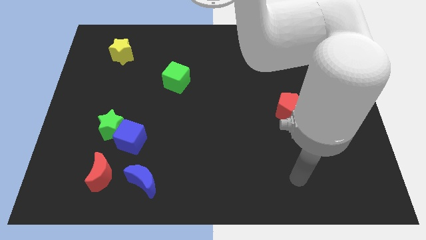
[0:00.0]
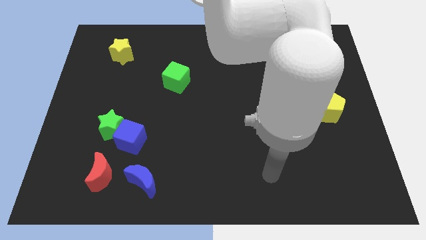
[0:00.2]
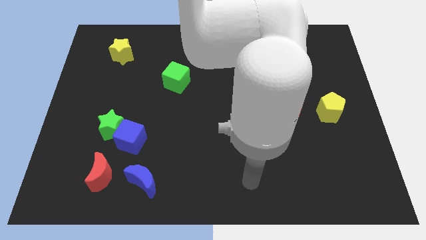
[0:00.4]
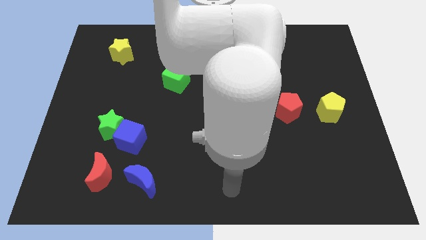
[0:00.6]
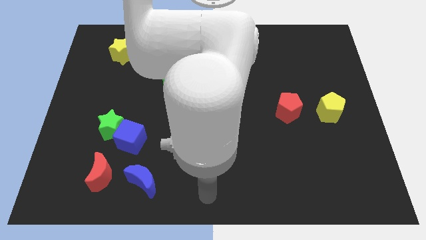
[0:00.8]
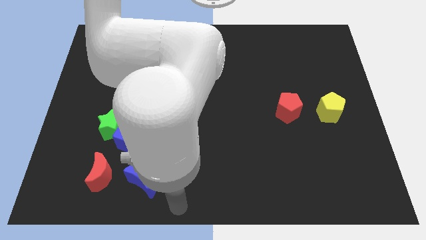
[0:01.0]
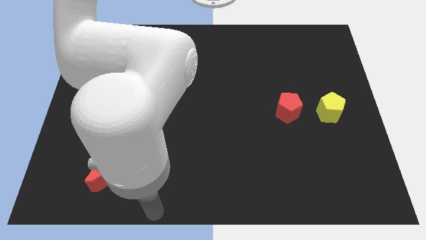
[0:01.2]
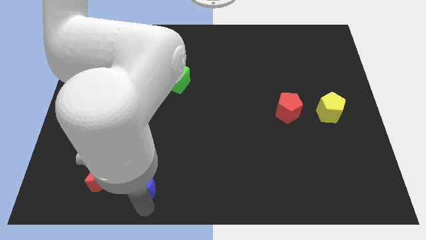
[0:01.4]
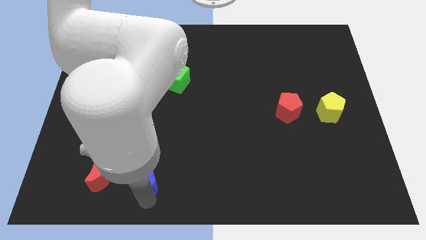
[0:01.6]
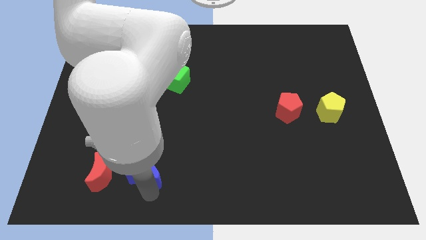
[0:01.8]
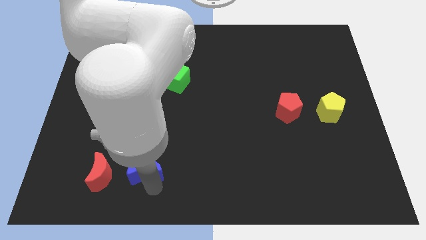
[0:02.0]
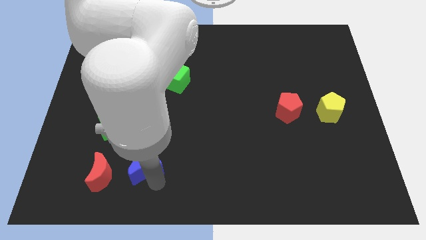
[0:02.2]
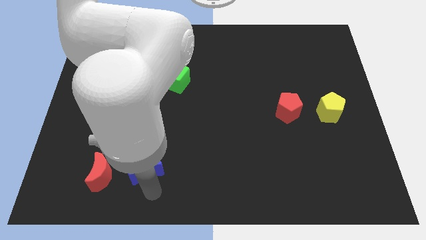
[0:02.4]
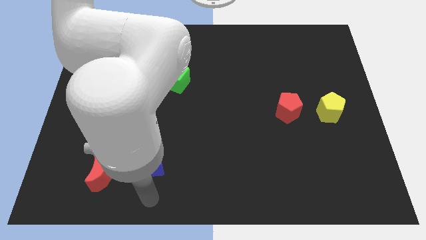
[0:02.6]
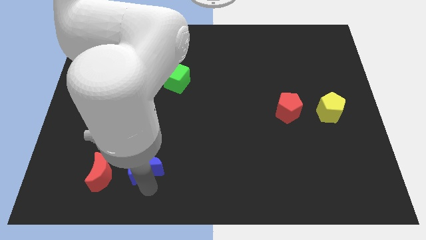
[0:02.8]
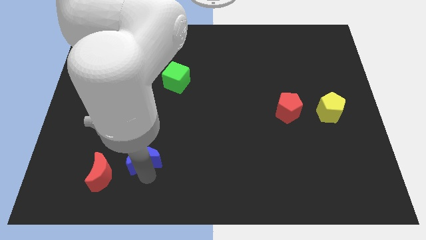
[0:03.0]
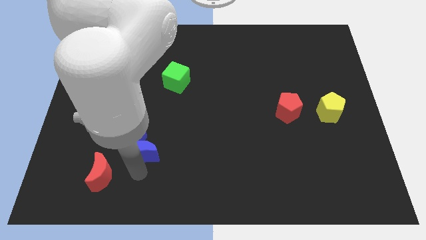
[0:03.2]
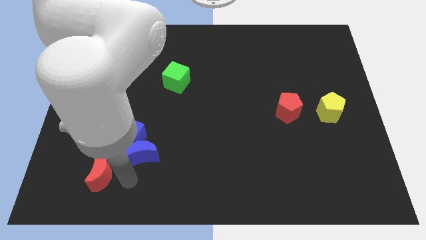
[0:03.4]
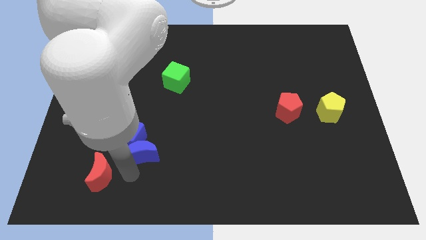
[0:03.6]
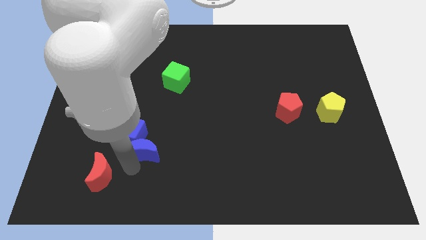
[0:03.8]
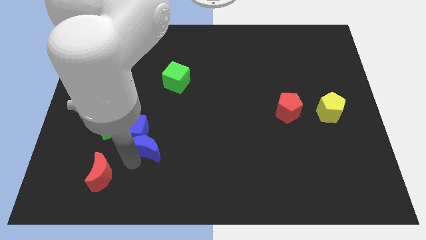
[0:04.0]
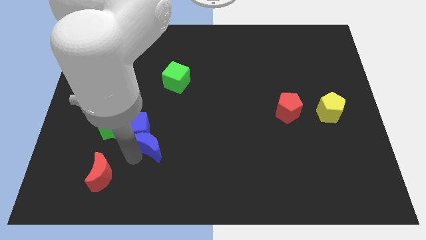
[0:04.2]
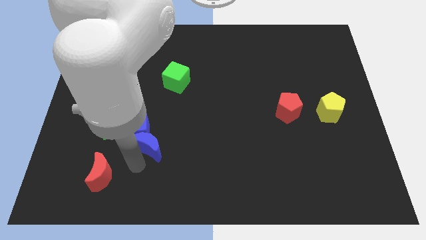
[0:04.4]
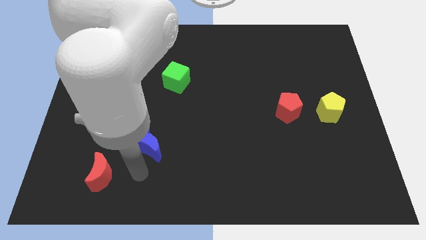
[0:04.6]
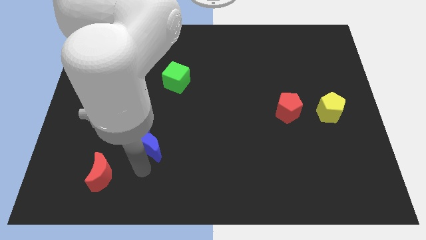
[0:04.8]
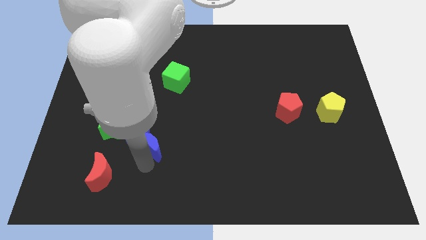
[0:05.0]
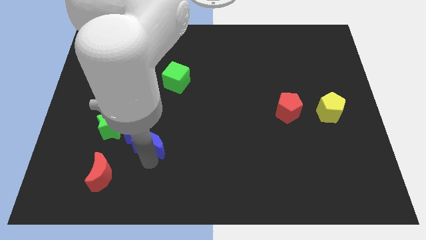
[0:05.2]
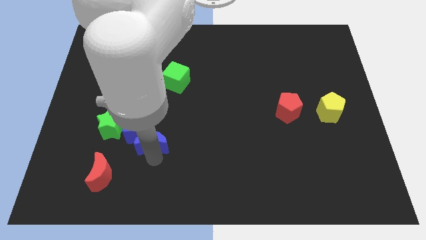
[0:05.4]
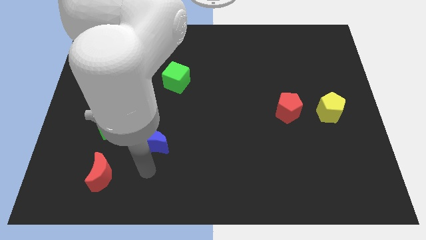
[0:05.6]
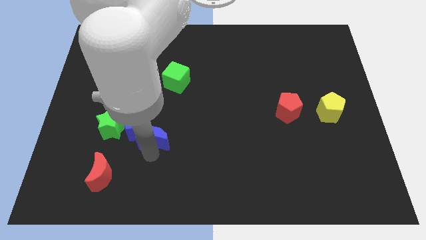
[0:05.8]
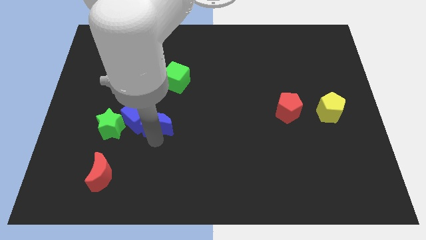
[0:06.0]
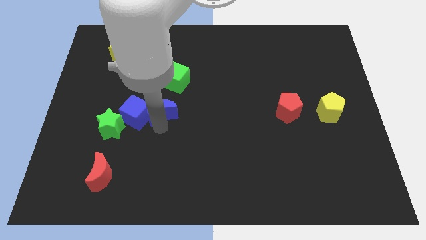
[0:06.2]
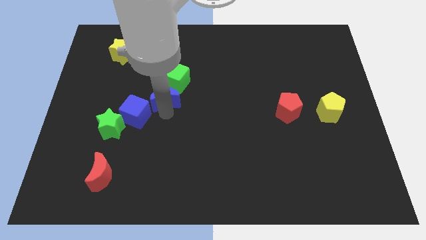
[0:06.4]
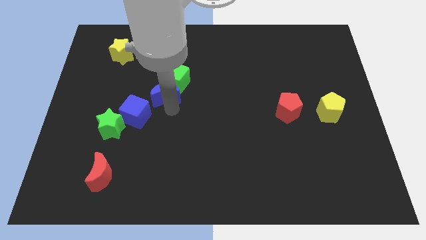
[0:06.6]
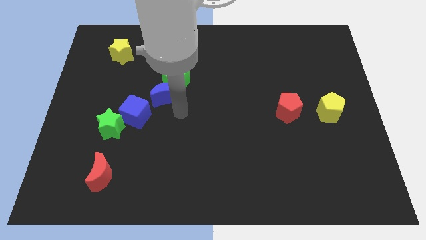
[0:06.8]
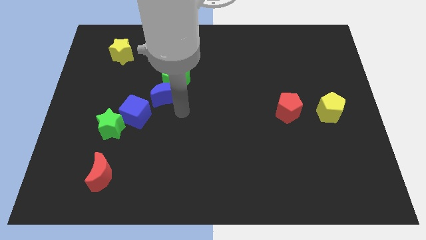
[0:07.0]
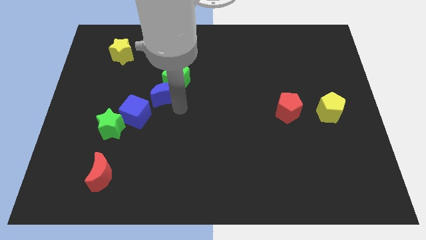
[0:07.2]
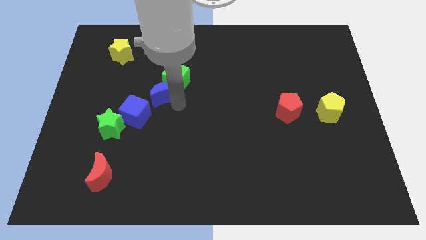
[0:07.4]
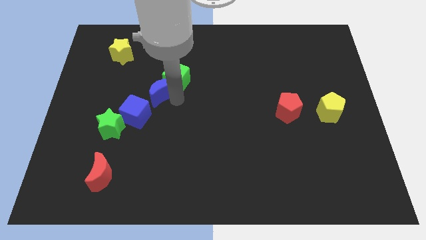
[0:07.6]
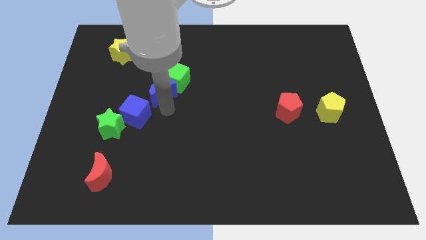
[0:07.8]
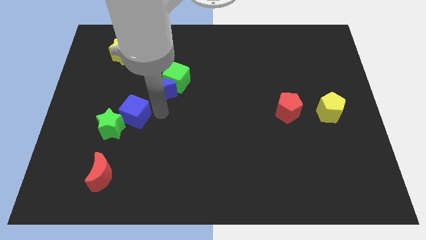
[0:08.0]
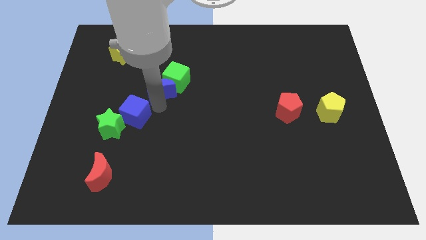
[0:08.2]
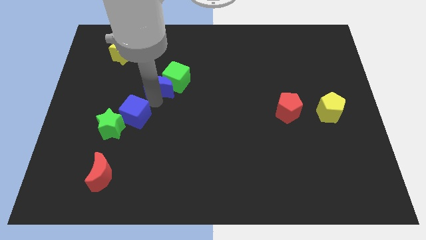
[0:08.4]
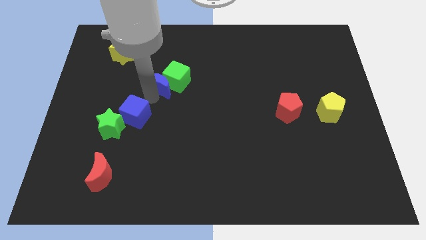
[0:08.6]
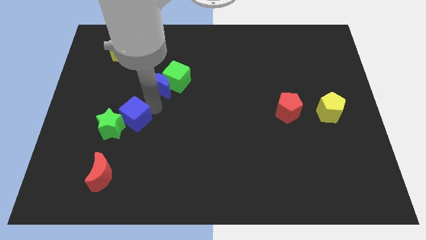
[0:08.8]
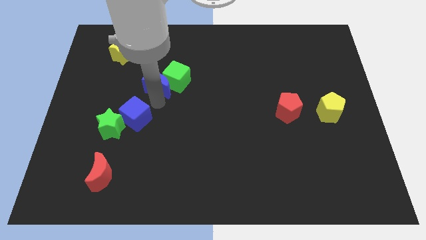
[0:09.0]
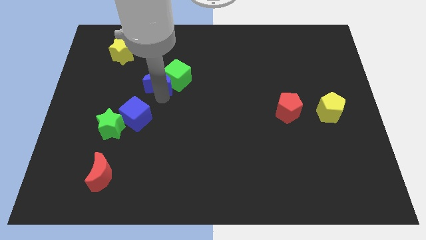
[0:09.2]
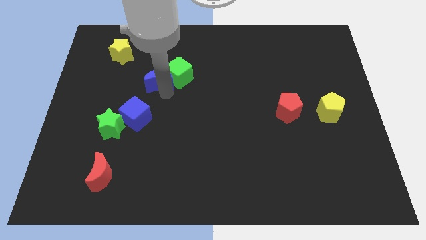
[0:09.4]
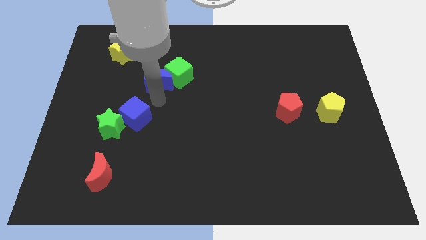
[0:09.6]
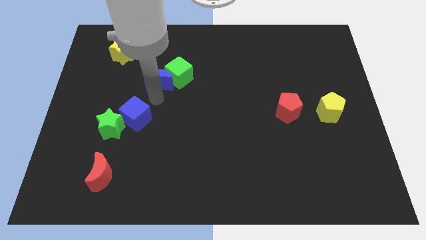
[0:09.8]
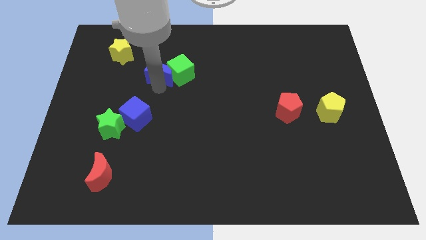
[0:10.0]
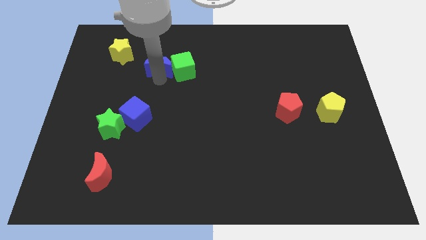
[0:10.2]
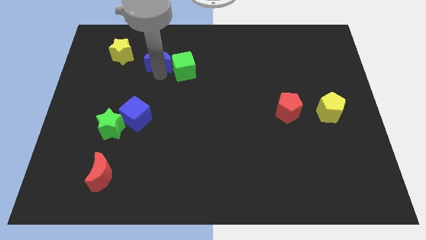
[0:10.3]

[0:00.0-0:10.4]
slide the blue moon just right of the yellow star

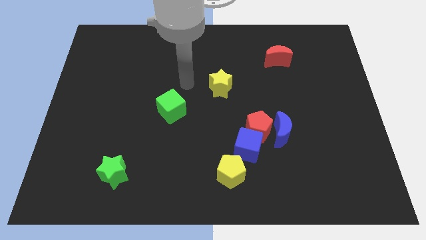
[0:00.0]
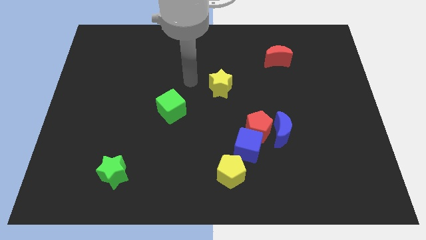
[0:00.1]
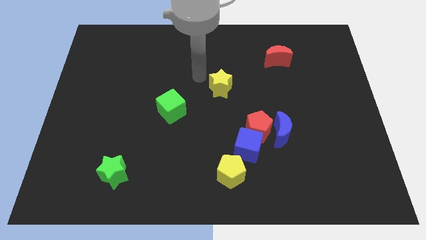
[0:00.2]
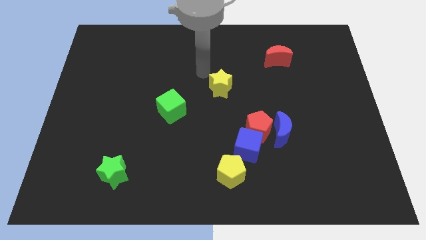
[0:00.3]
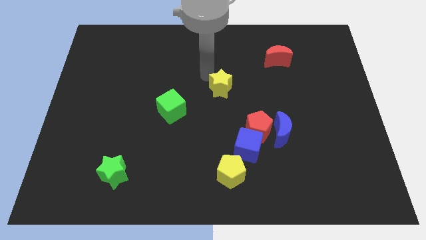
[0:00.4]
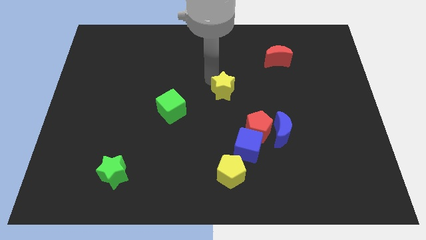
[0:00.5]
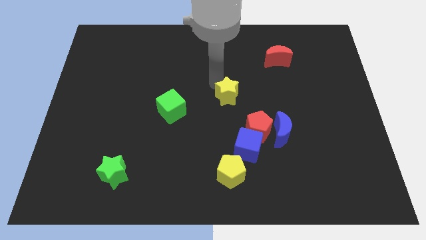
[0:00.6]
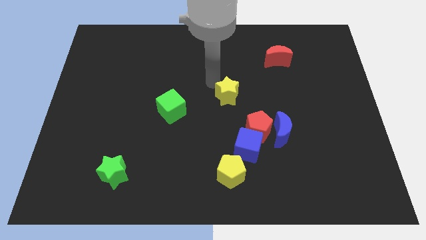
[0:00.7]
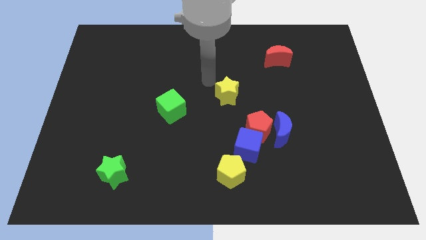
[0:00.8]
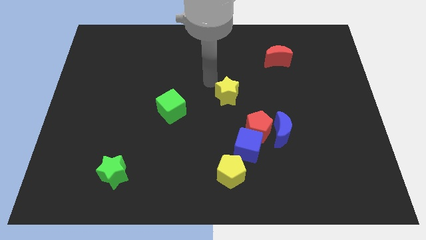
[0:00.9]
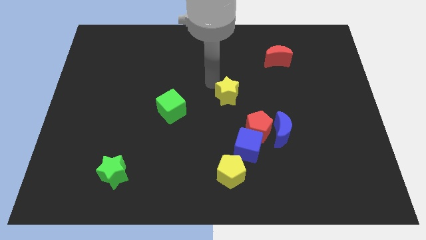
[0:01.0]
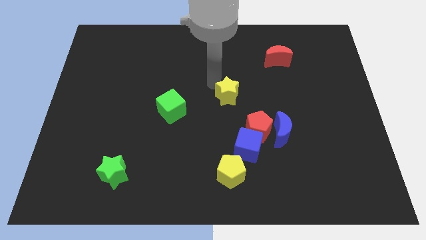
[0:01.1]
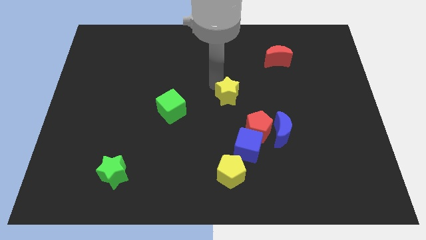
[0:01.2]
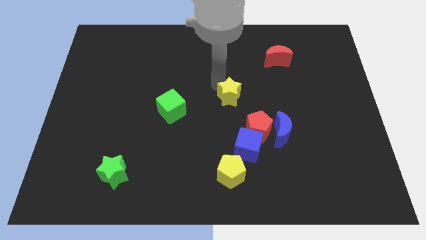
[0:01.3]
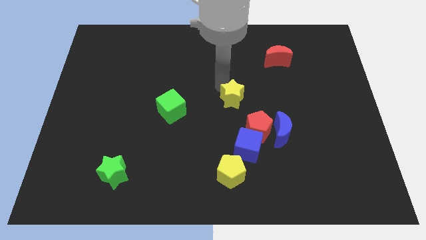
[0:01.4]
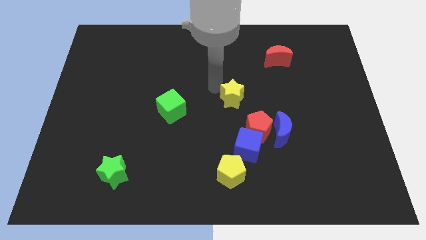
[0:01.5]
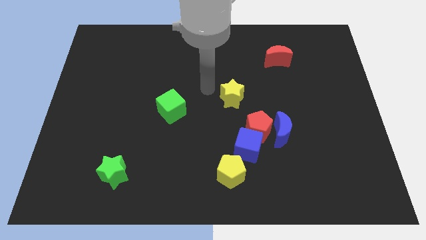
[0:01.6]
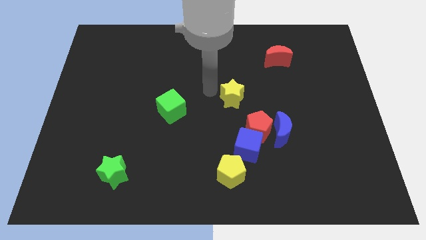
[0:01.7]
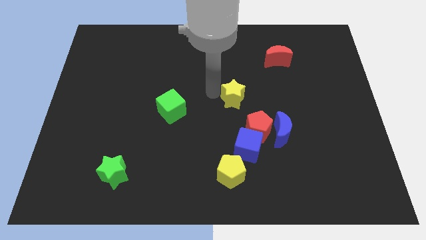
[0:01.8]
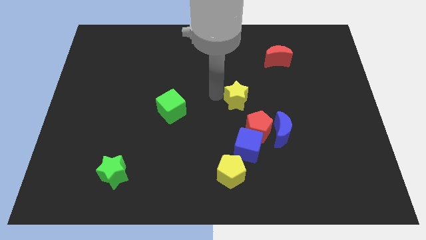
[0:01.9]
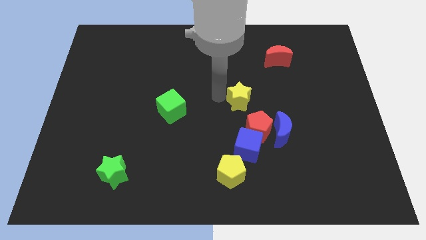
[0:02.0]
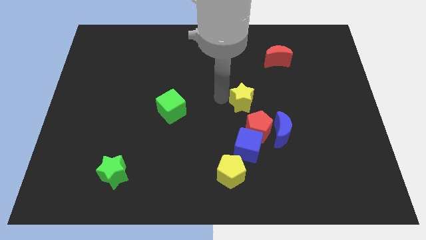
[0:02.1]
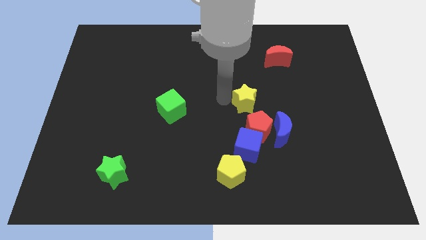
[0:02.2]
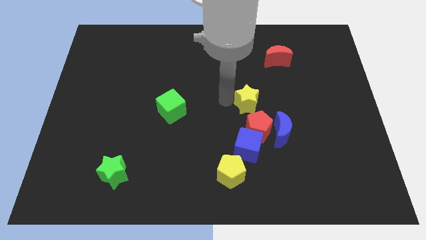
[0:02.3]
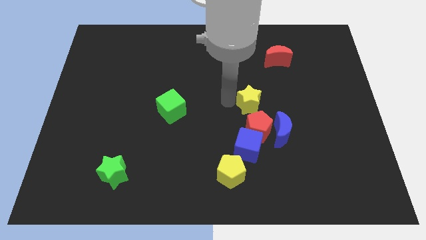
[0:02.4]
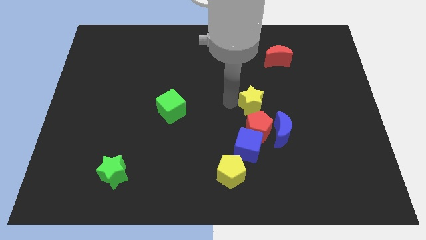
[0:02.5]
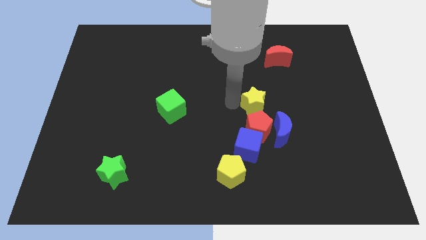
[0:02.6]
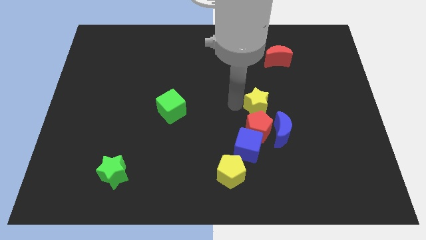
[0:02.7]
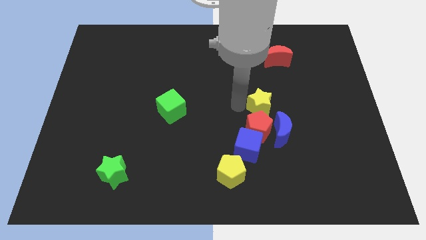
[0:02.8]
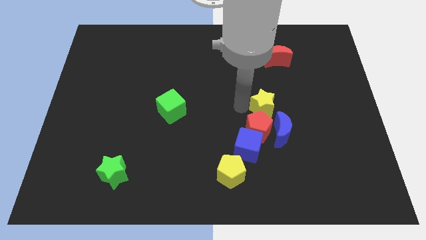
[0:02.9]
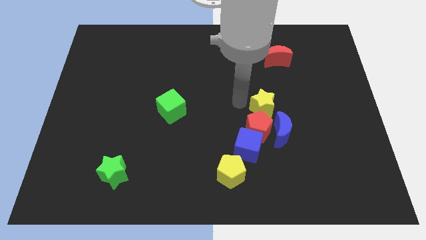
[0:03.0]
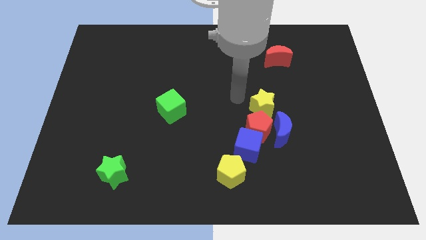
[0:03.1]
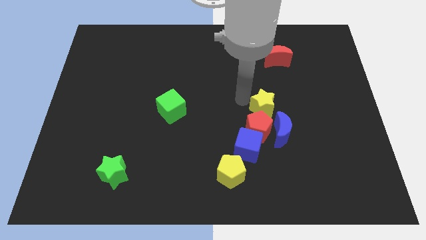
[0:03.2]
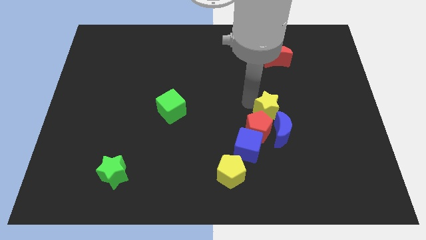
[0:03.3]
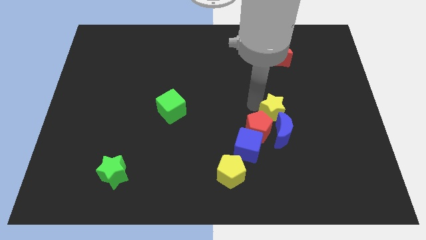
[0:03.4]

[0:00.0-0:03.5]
push the yellow star right of the red pentagon
